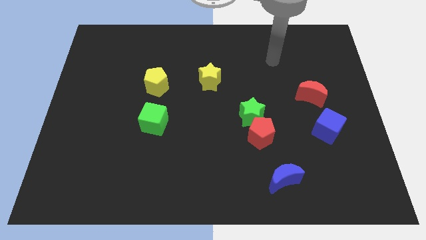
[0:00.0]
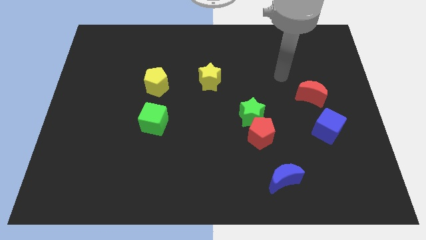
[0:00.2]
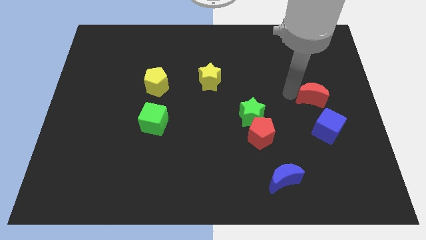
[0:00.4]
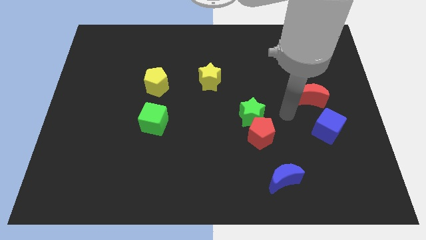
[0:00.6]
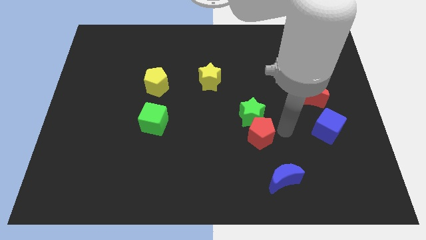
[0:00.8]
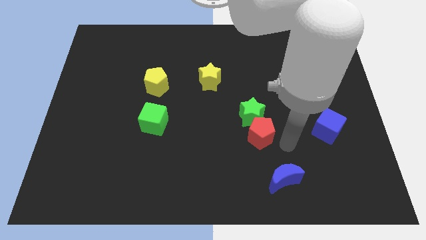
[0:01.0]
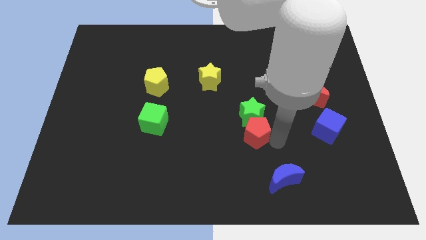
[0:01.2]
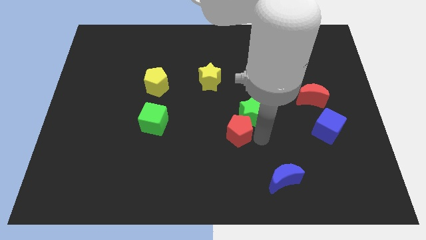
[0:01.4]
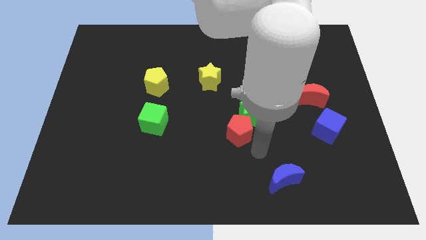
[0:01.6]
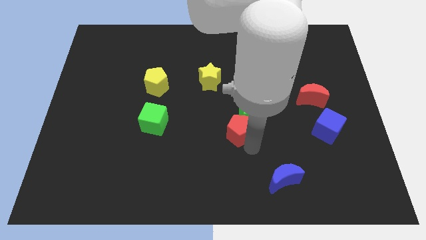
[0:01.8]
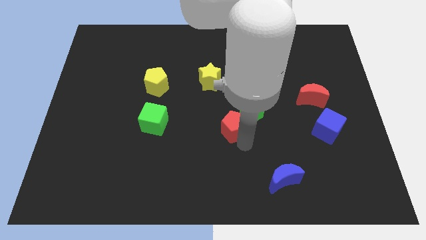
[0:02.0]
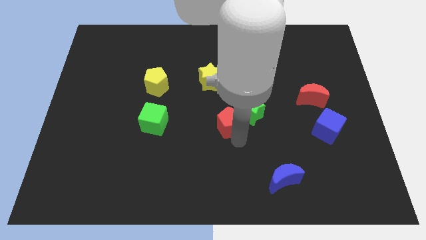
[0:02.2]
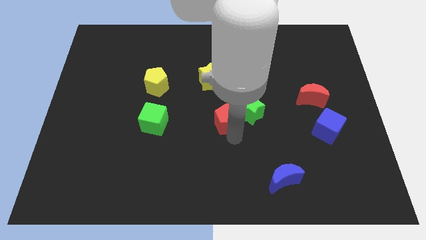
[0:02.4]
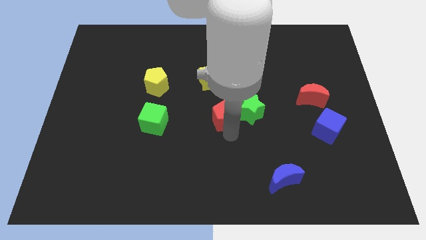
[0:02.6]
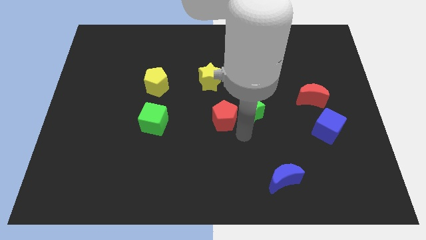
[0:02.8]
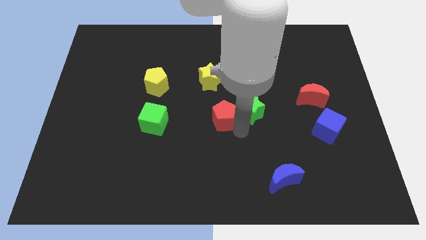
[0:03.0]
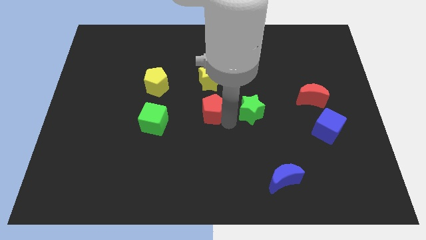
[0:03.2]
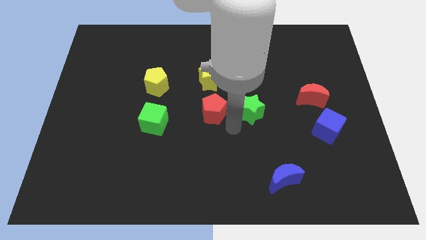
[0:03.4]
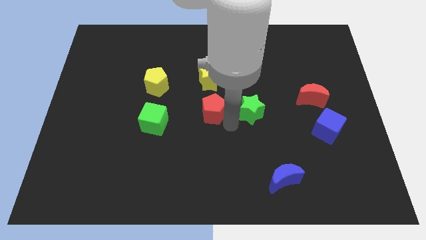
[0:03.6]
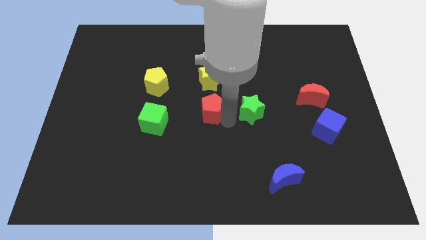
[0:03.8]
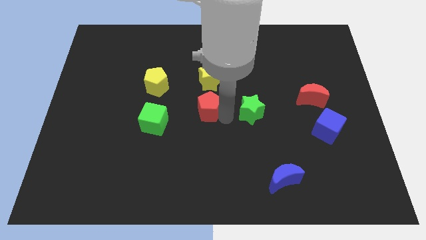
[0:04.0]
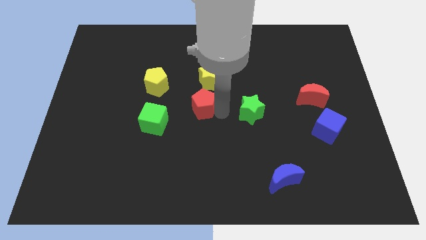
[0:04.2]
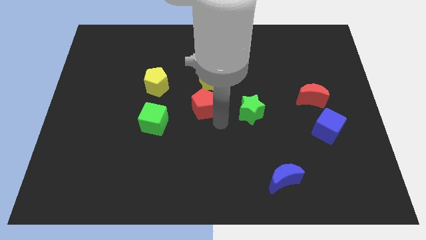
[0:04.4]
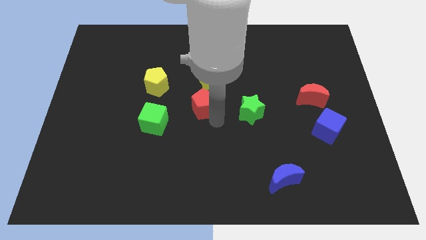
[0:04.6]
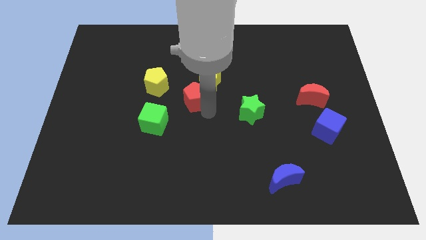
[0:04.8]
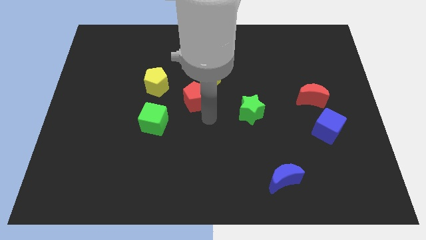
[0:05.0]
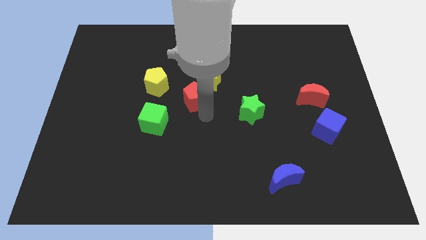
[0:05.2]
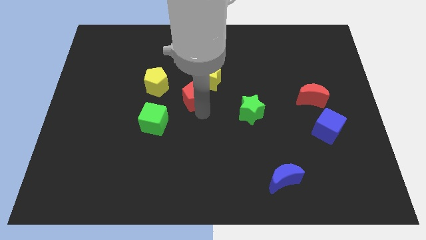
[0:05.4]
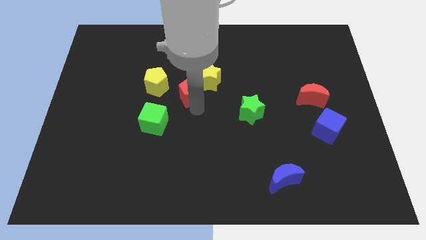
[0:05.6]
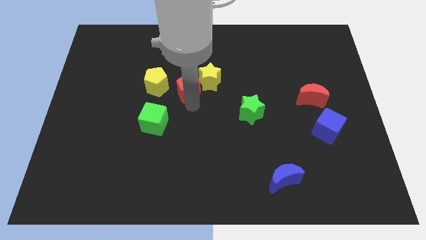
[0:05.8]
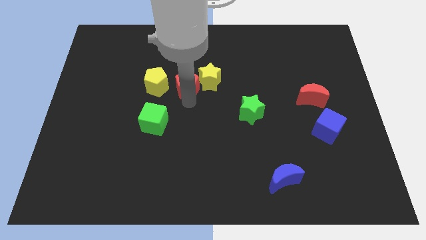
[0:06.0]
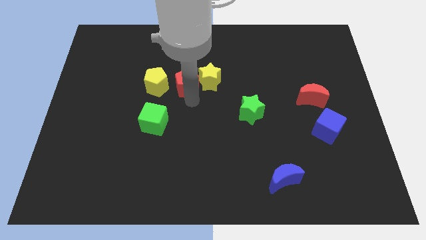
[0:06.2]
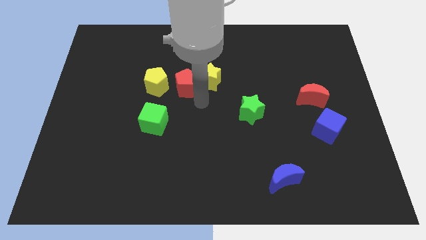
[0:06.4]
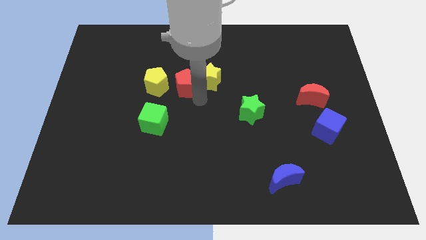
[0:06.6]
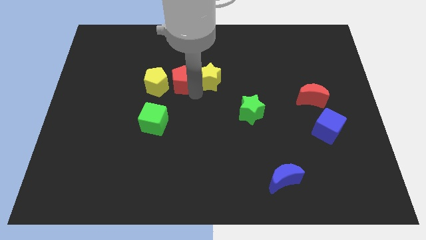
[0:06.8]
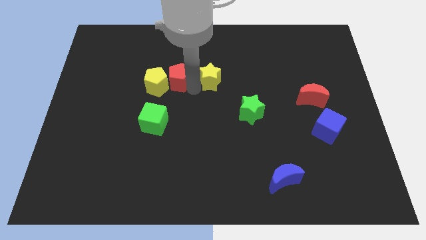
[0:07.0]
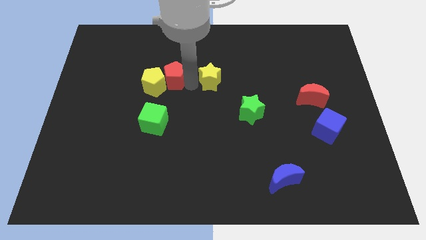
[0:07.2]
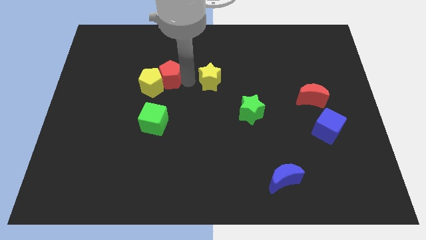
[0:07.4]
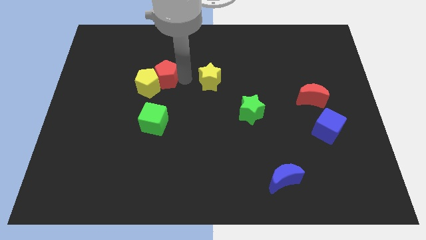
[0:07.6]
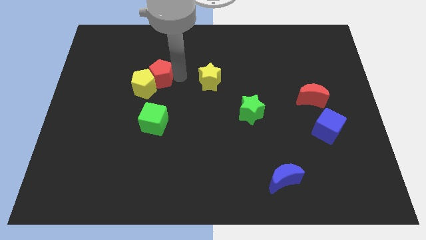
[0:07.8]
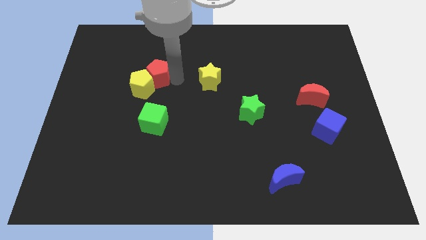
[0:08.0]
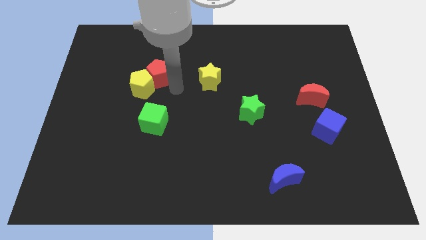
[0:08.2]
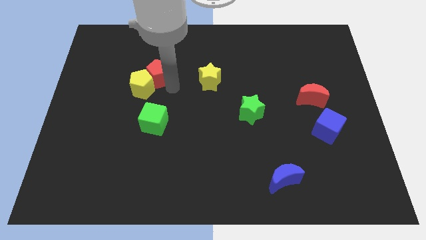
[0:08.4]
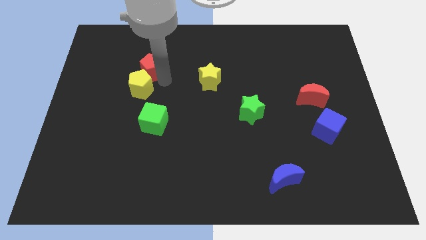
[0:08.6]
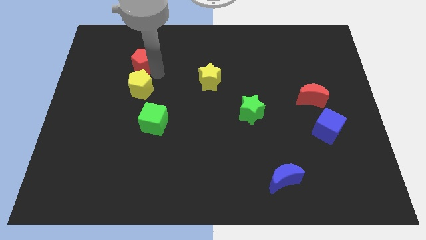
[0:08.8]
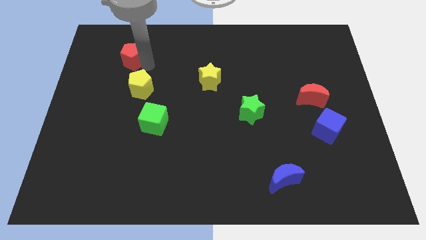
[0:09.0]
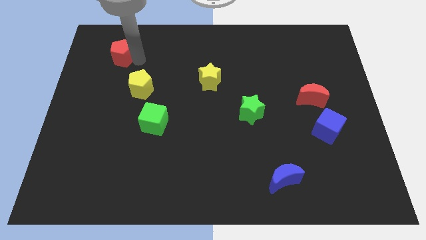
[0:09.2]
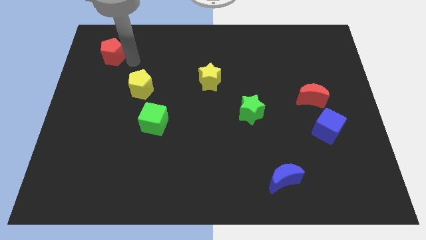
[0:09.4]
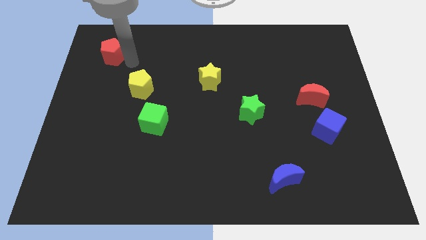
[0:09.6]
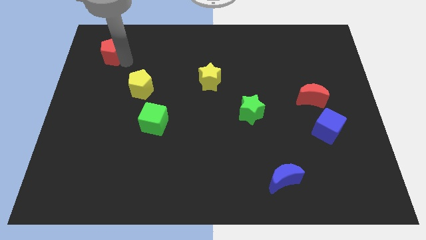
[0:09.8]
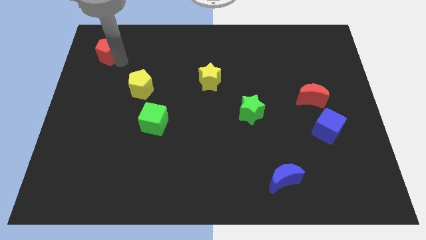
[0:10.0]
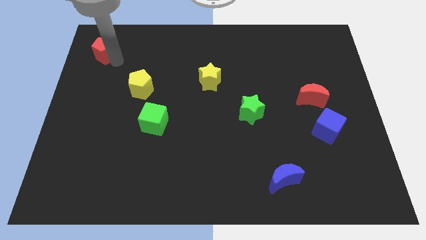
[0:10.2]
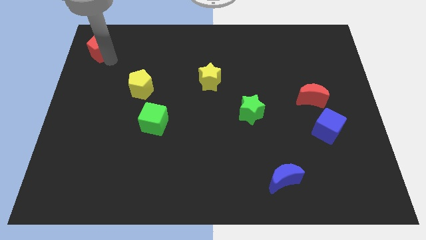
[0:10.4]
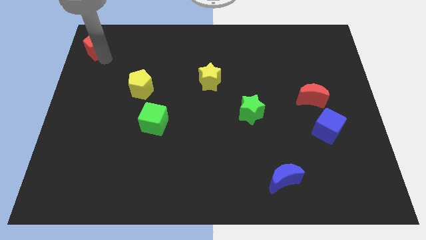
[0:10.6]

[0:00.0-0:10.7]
move the red pentagon to the top left corner
